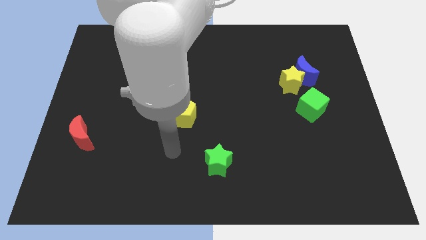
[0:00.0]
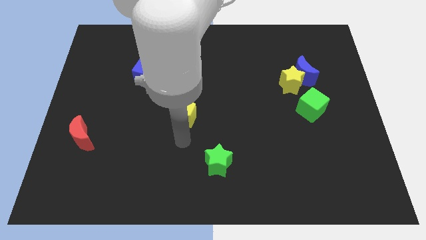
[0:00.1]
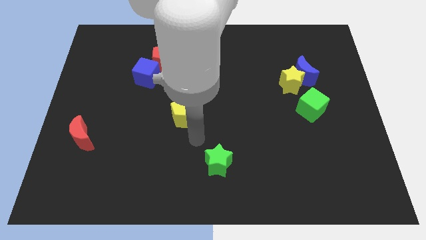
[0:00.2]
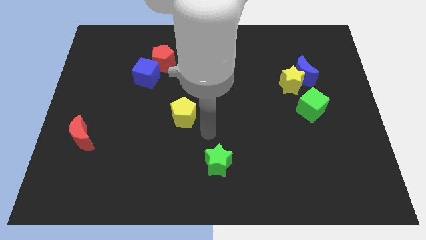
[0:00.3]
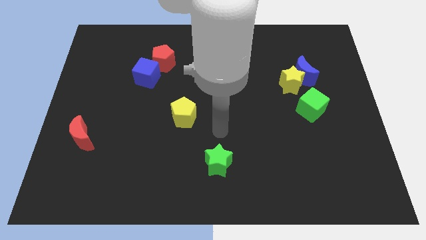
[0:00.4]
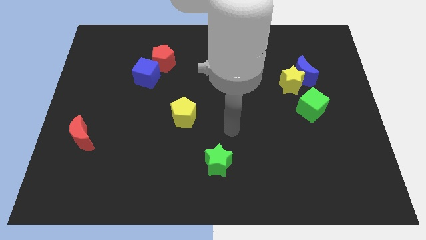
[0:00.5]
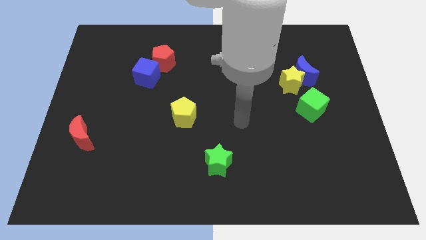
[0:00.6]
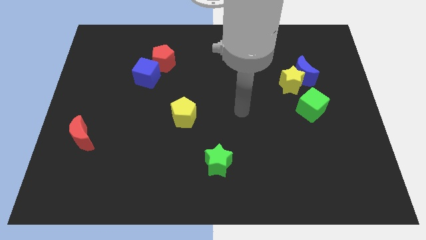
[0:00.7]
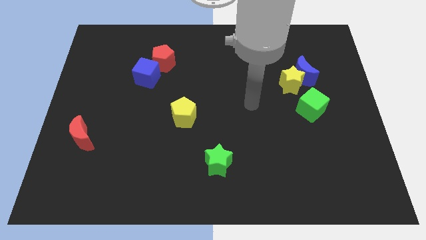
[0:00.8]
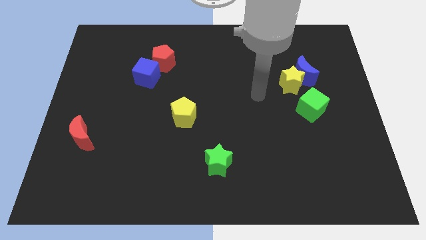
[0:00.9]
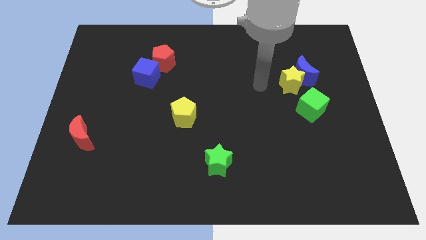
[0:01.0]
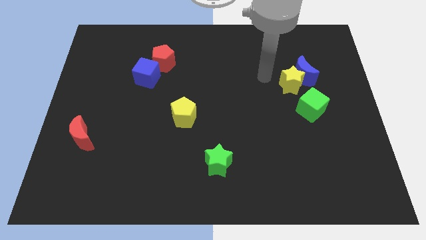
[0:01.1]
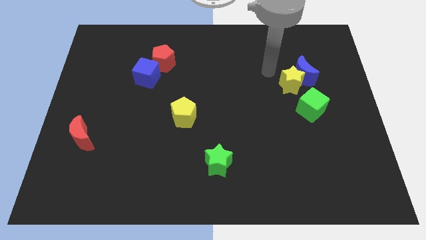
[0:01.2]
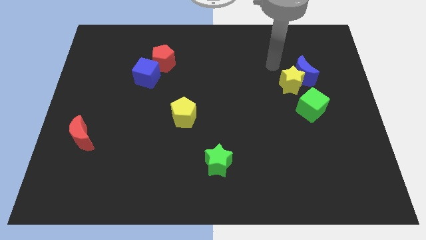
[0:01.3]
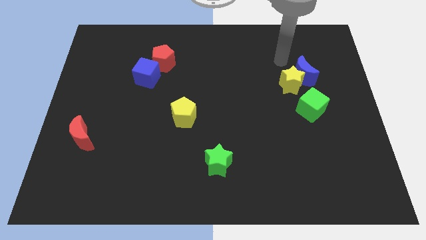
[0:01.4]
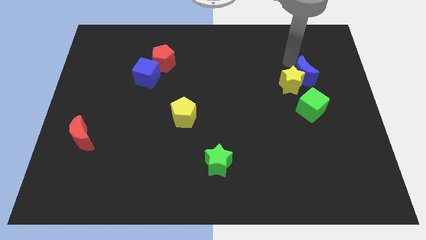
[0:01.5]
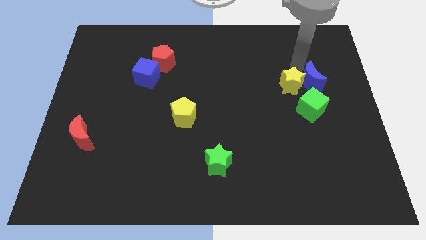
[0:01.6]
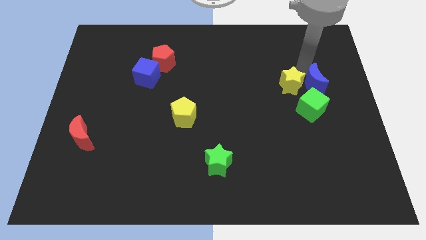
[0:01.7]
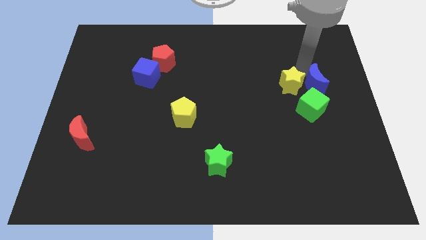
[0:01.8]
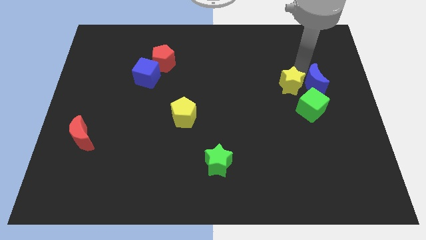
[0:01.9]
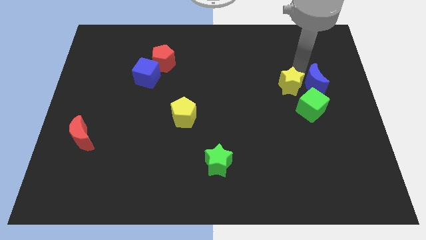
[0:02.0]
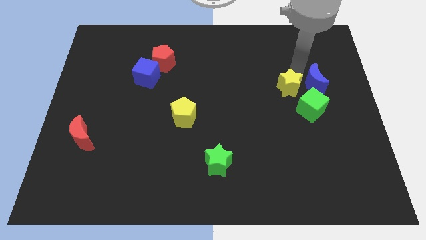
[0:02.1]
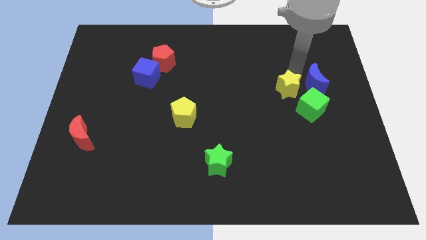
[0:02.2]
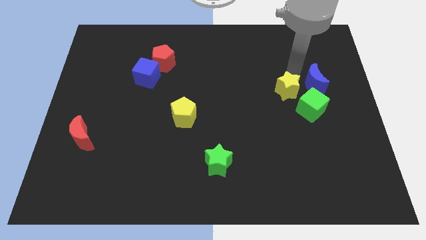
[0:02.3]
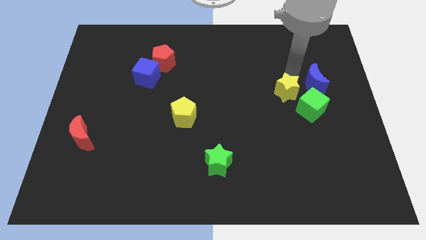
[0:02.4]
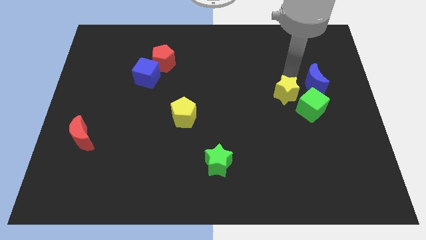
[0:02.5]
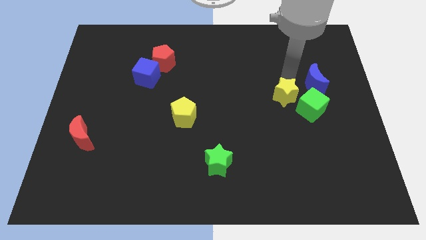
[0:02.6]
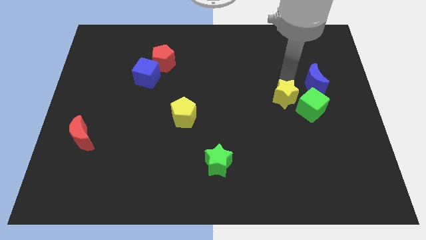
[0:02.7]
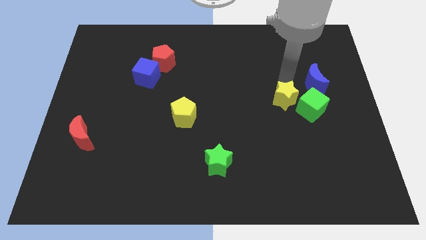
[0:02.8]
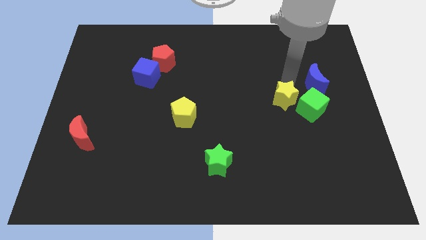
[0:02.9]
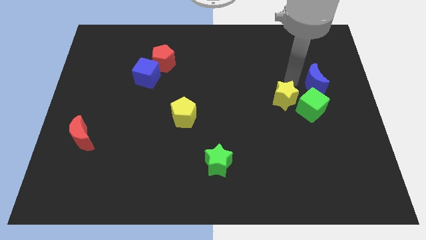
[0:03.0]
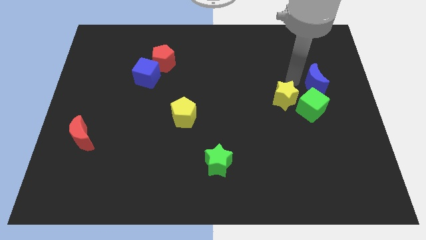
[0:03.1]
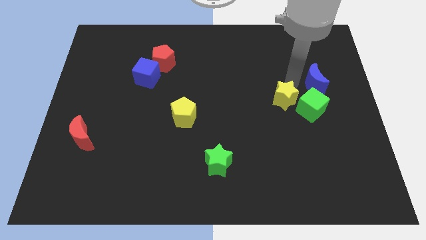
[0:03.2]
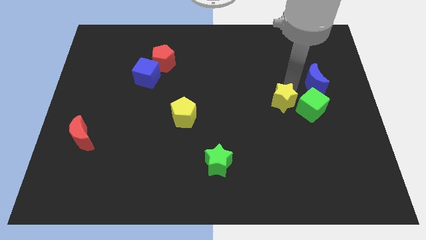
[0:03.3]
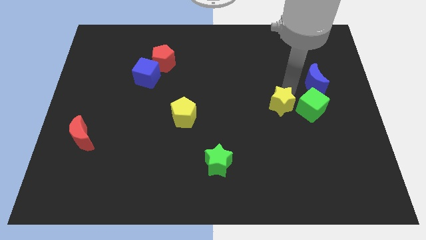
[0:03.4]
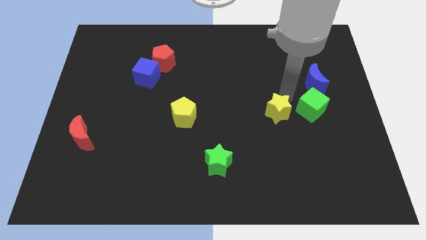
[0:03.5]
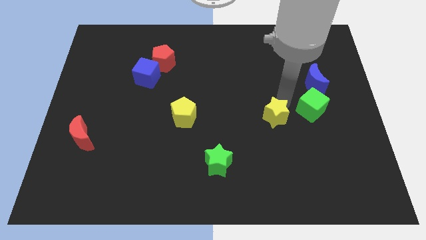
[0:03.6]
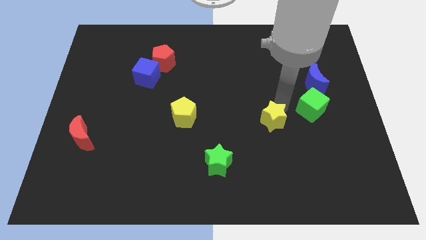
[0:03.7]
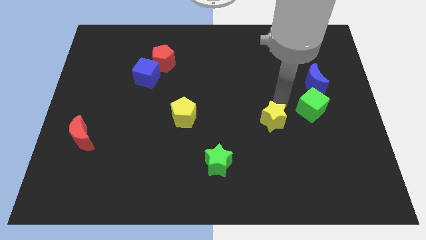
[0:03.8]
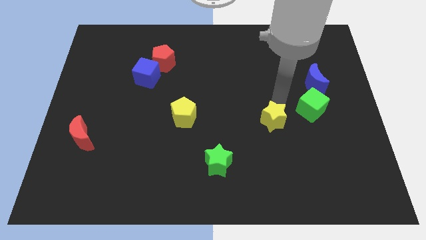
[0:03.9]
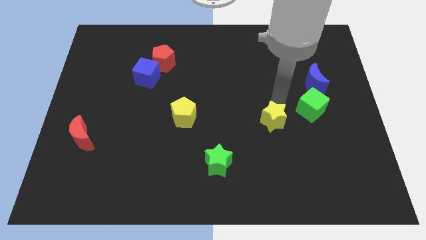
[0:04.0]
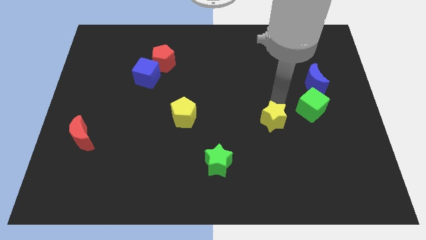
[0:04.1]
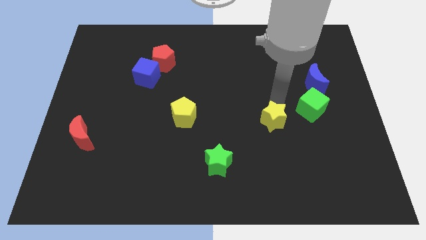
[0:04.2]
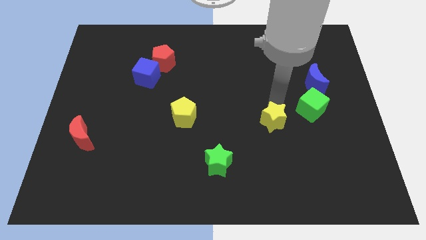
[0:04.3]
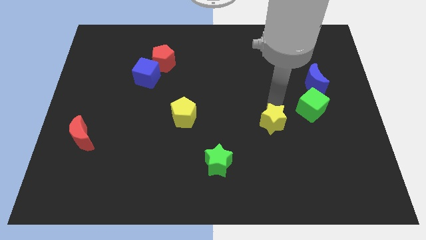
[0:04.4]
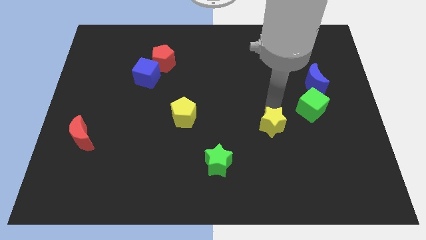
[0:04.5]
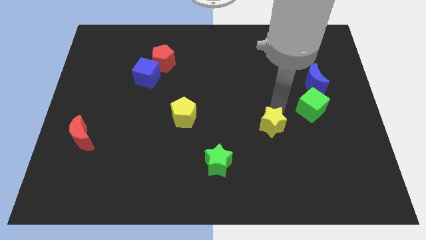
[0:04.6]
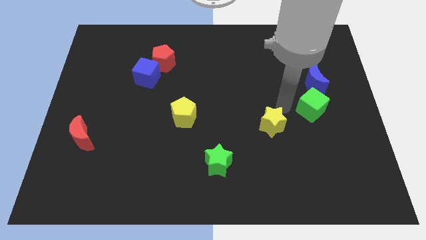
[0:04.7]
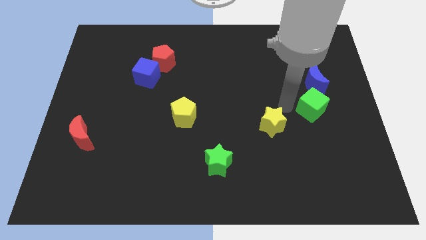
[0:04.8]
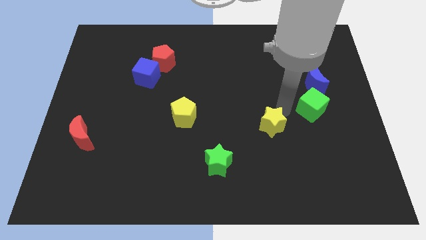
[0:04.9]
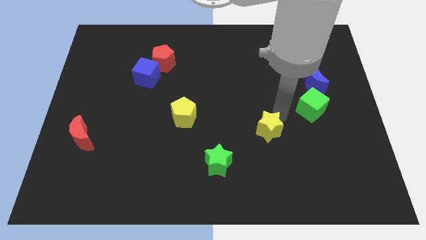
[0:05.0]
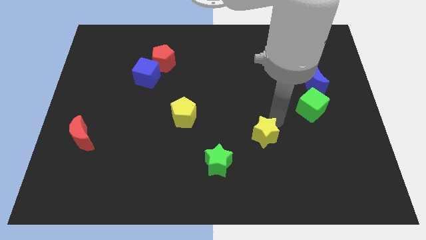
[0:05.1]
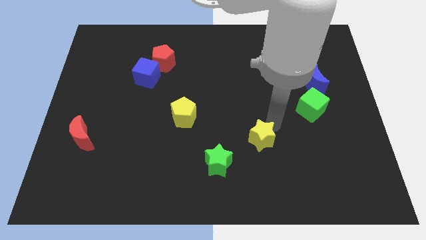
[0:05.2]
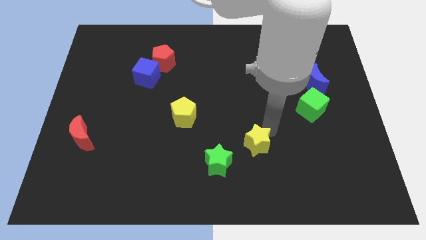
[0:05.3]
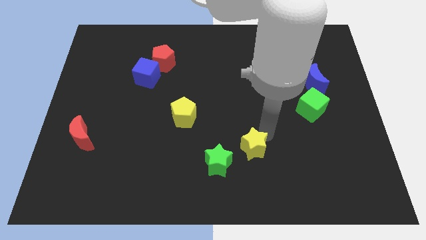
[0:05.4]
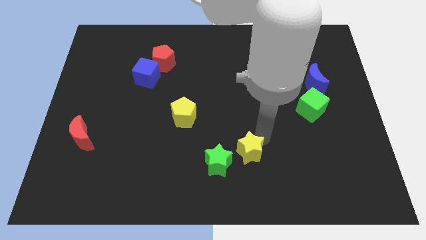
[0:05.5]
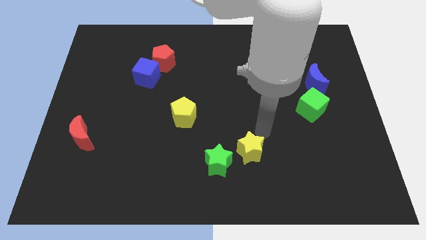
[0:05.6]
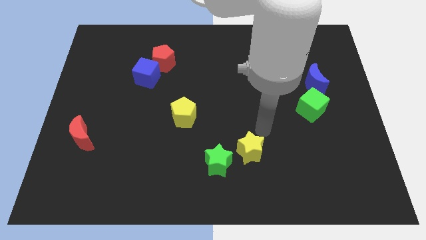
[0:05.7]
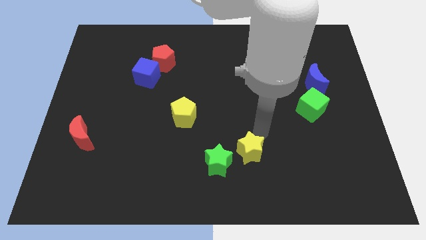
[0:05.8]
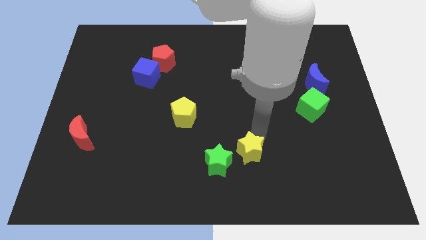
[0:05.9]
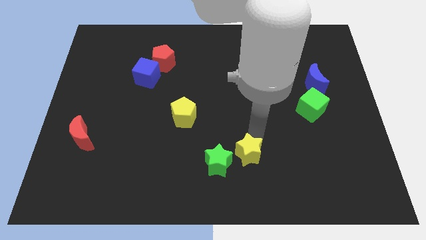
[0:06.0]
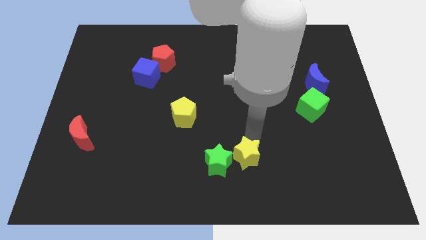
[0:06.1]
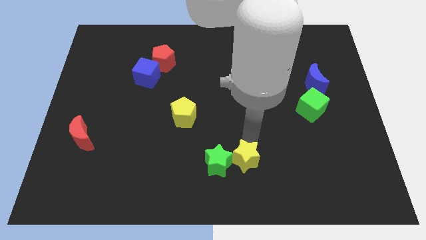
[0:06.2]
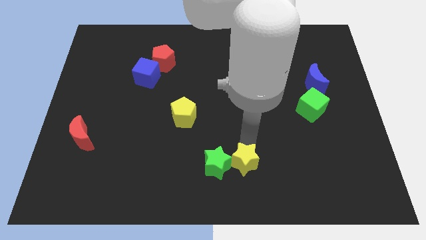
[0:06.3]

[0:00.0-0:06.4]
move the yellow star to the bottom
